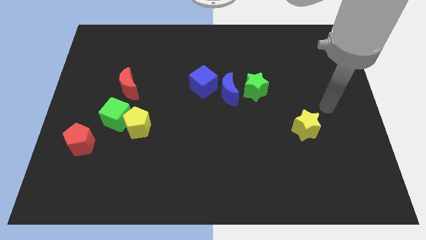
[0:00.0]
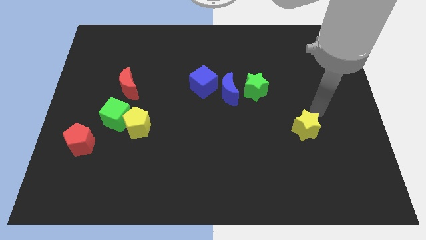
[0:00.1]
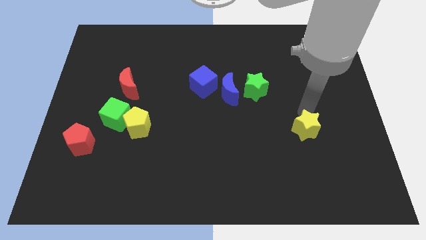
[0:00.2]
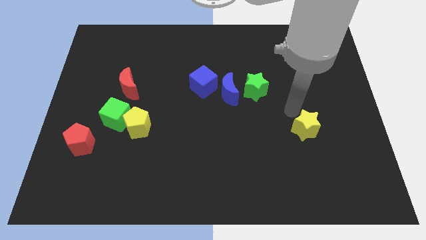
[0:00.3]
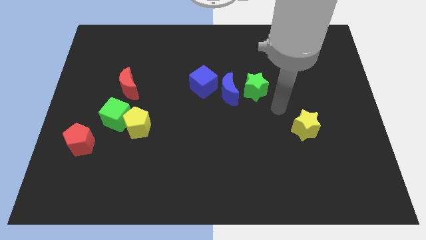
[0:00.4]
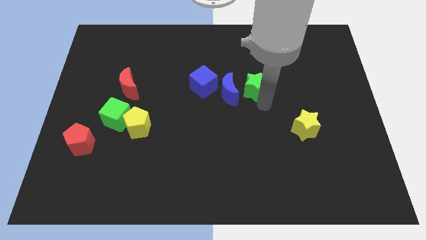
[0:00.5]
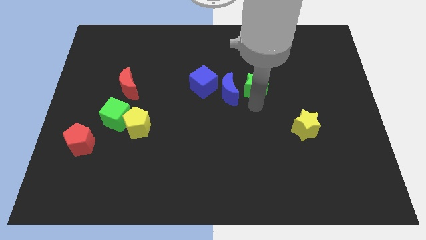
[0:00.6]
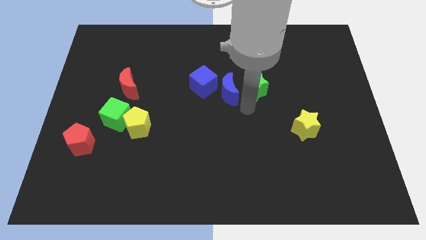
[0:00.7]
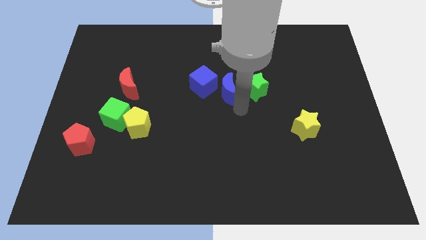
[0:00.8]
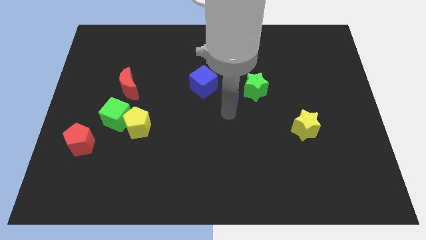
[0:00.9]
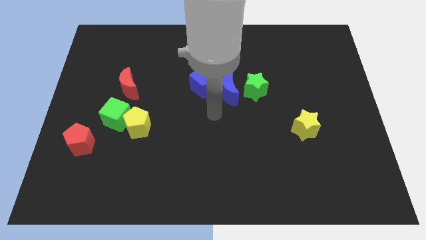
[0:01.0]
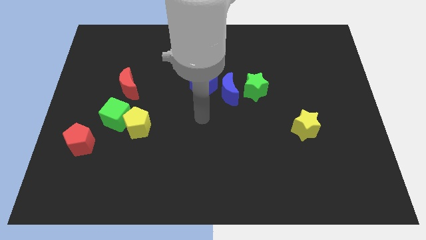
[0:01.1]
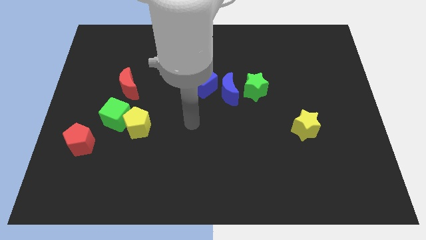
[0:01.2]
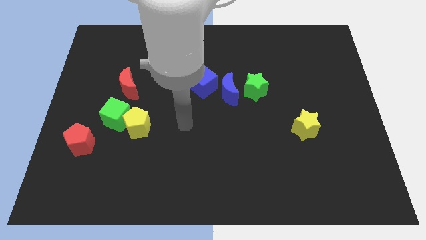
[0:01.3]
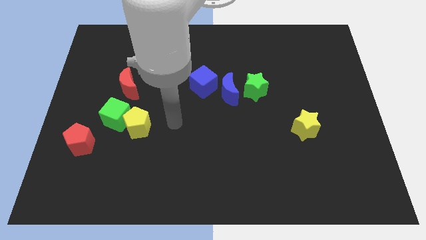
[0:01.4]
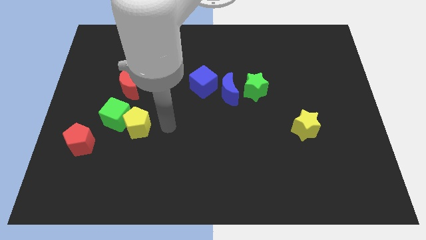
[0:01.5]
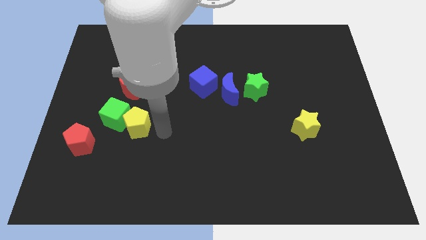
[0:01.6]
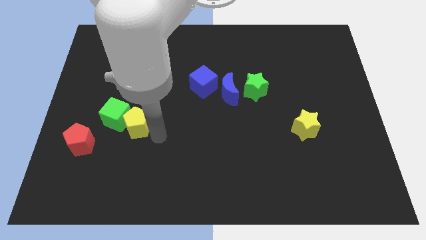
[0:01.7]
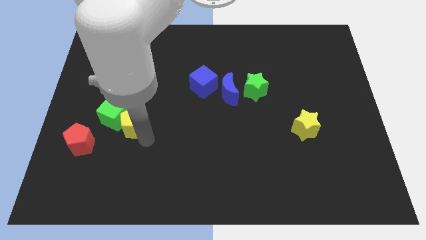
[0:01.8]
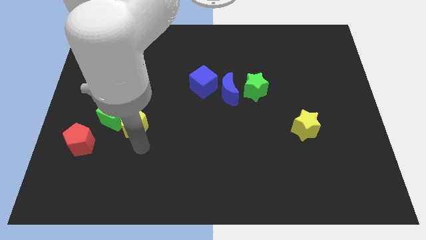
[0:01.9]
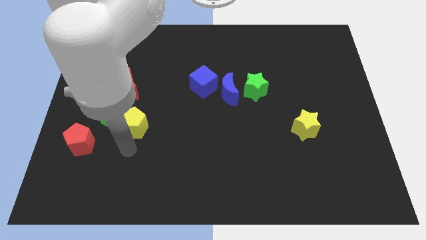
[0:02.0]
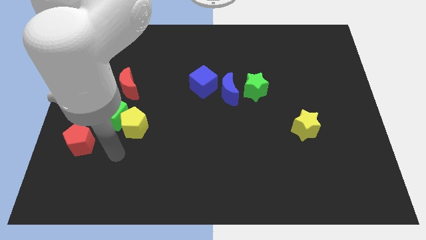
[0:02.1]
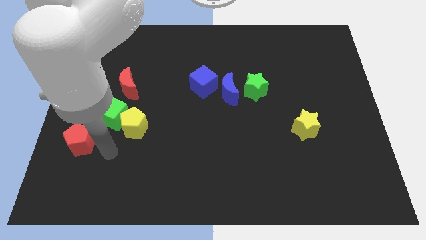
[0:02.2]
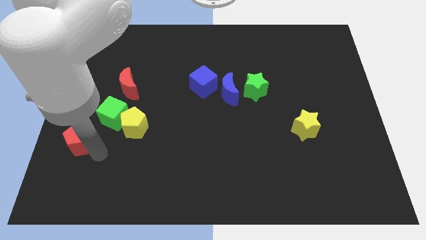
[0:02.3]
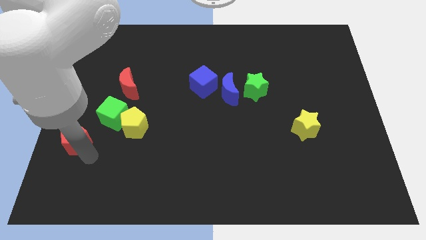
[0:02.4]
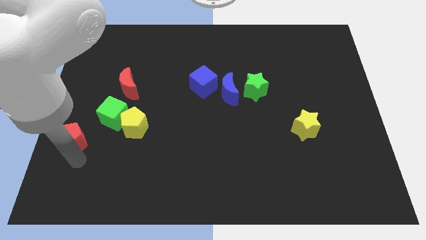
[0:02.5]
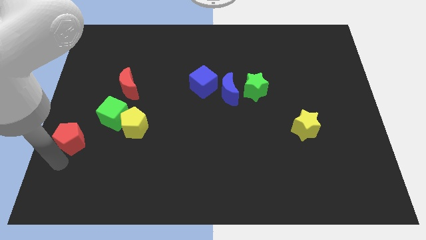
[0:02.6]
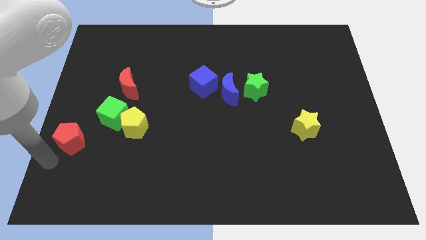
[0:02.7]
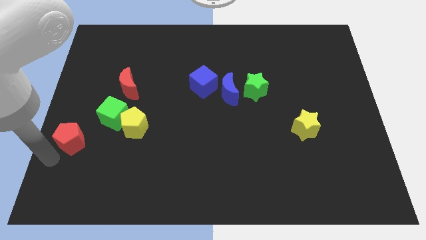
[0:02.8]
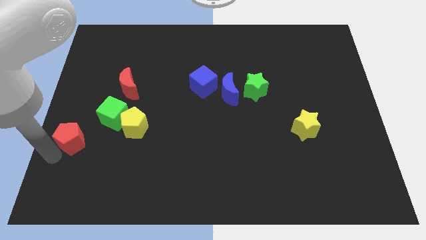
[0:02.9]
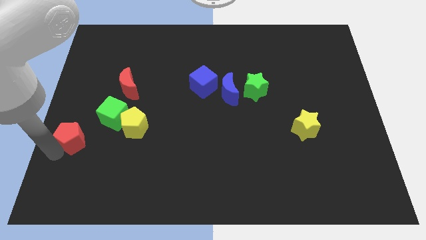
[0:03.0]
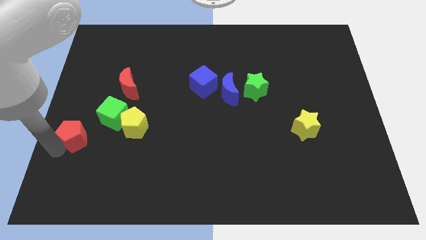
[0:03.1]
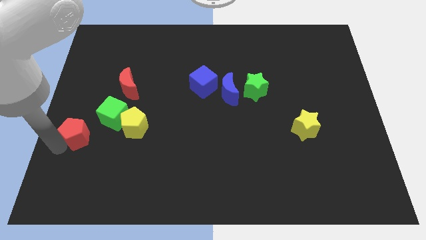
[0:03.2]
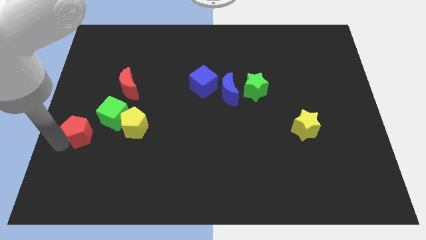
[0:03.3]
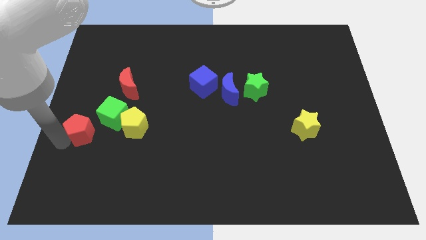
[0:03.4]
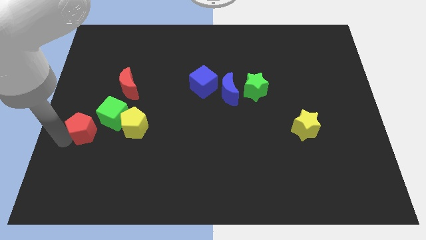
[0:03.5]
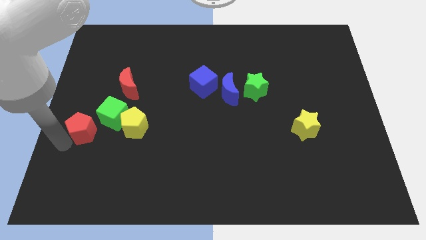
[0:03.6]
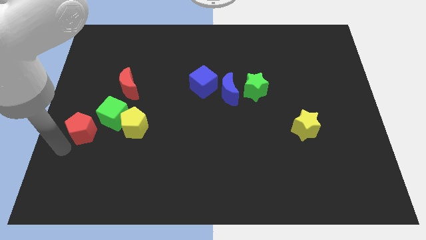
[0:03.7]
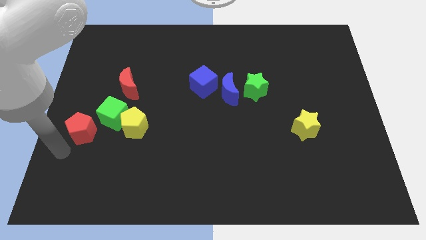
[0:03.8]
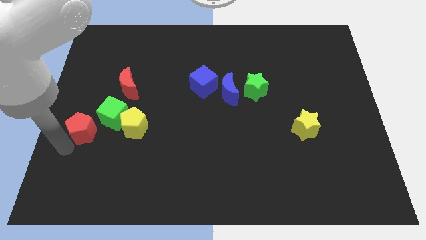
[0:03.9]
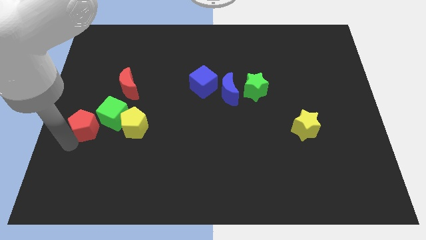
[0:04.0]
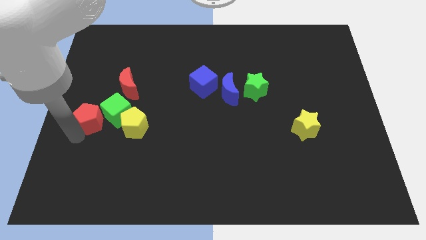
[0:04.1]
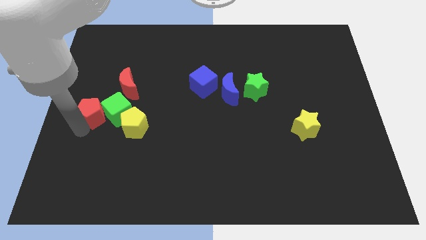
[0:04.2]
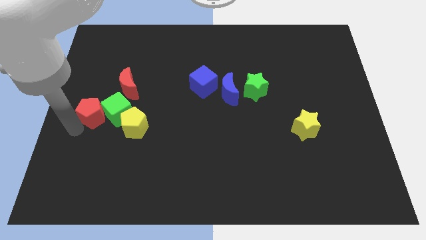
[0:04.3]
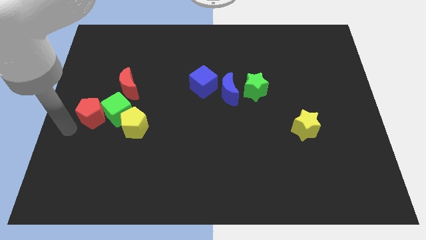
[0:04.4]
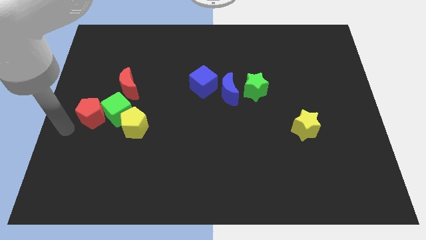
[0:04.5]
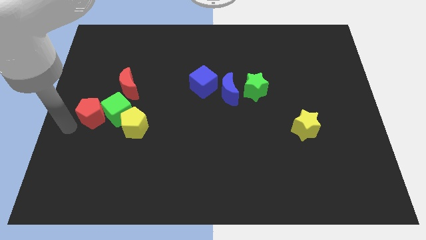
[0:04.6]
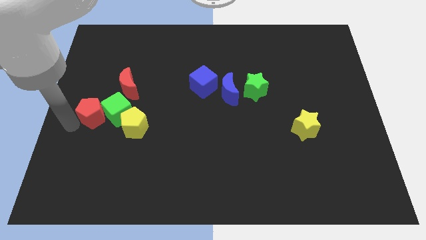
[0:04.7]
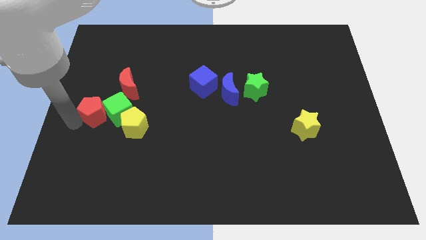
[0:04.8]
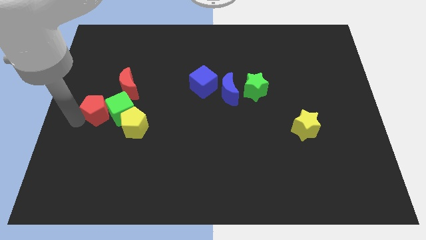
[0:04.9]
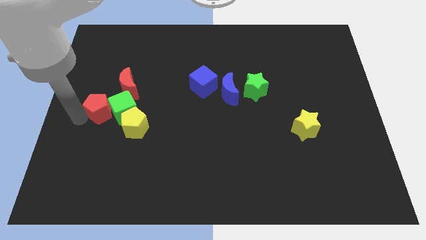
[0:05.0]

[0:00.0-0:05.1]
slide the red pentagon slightly upwards and right diagonally

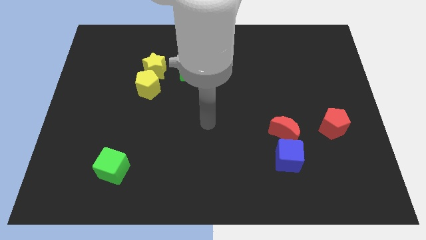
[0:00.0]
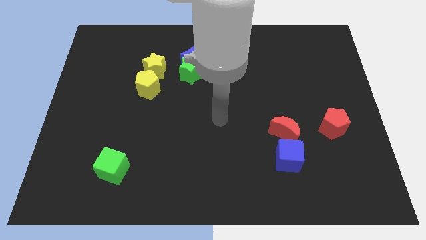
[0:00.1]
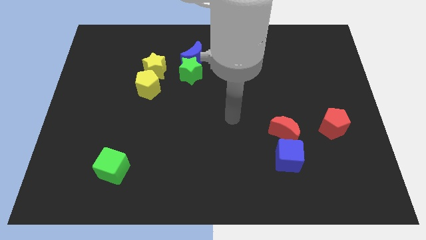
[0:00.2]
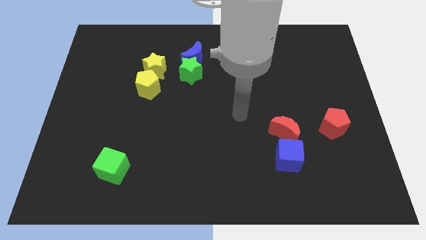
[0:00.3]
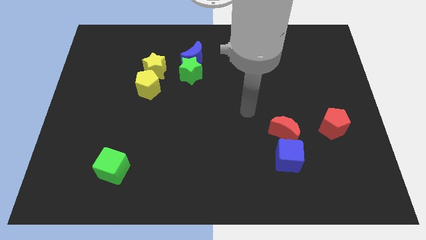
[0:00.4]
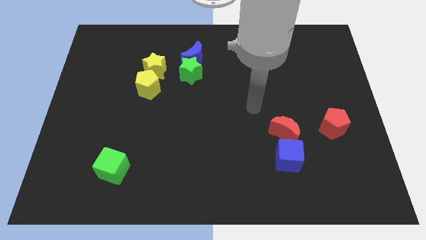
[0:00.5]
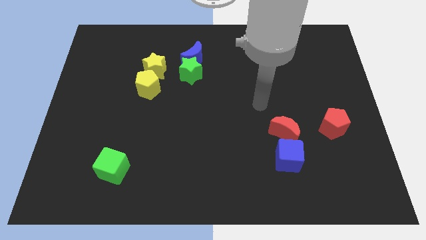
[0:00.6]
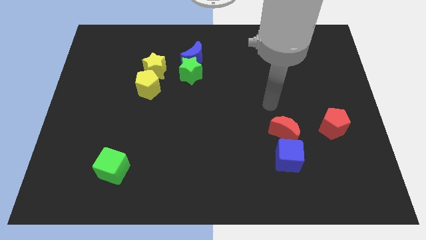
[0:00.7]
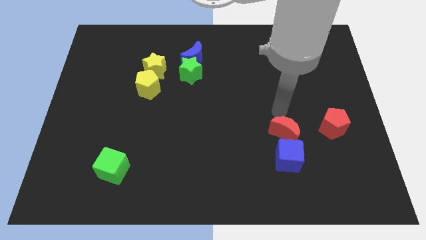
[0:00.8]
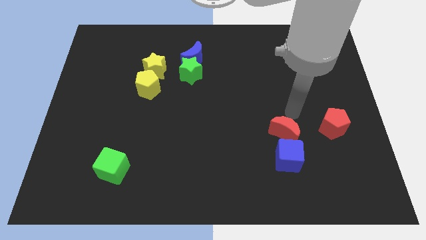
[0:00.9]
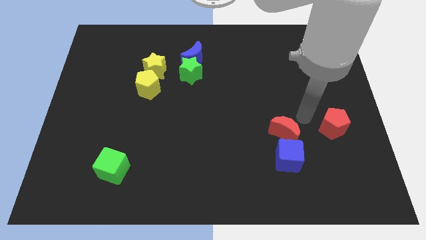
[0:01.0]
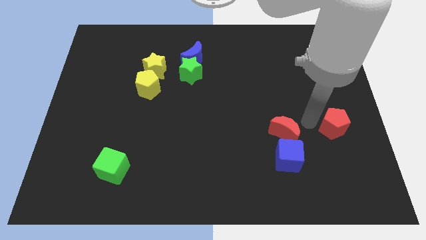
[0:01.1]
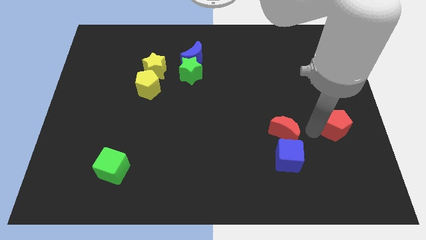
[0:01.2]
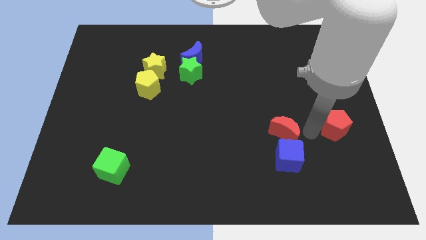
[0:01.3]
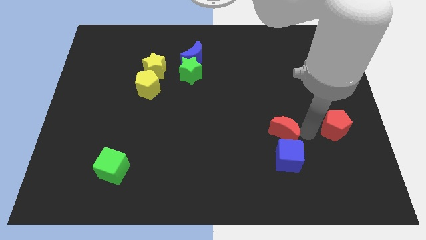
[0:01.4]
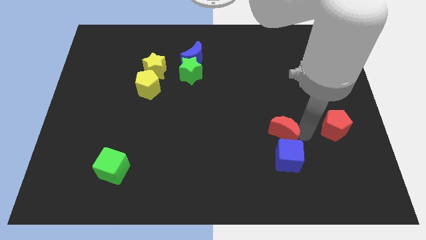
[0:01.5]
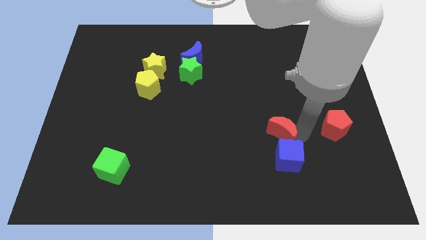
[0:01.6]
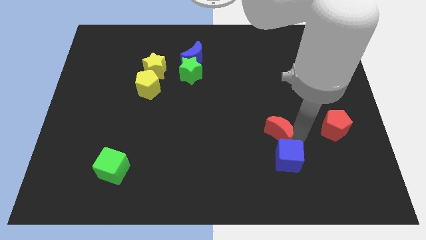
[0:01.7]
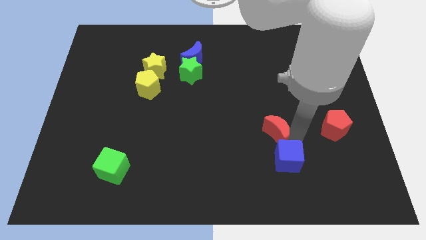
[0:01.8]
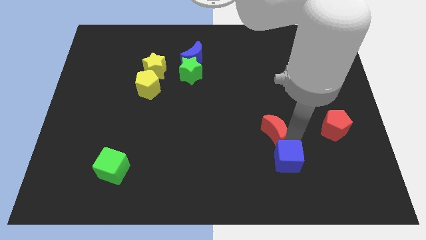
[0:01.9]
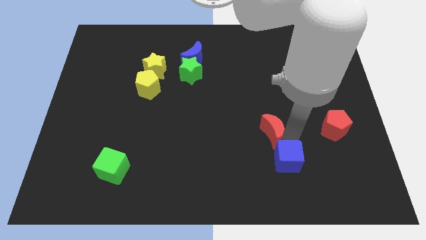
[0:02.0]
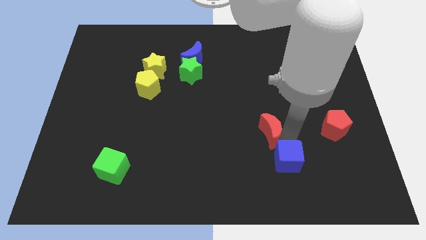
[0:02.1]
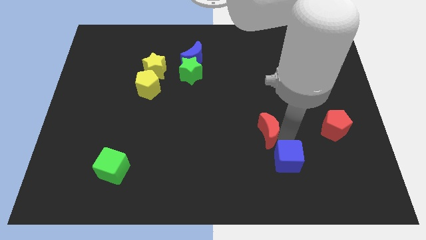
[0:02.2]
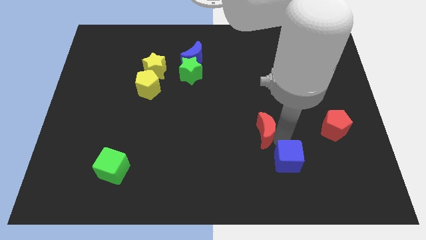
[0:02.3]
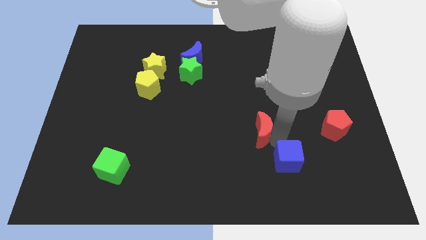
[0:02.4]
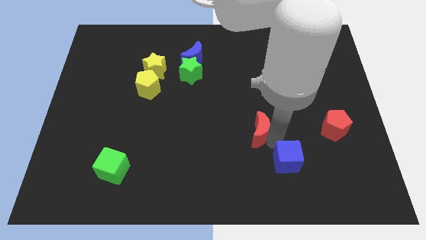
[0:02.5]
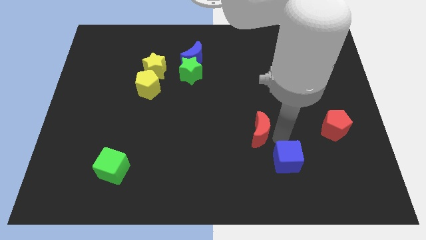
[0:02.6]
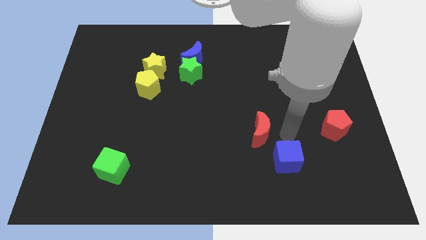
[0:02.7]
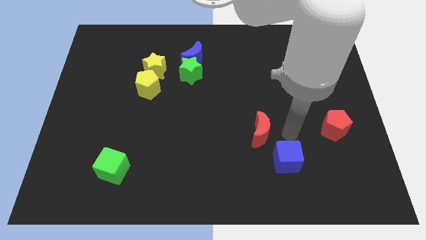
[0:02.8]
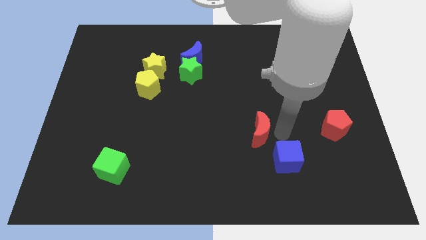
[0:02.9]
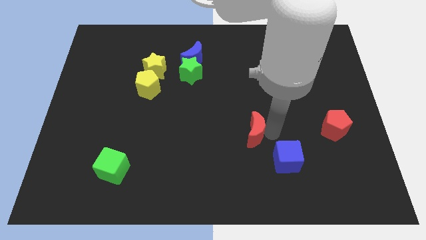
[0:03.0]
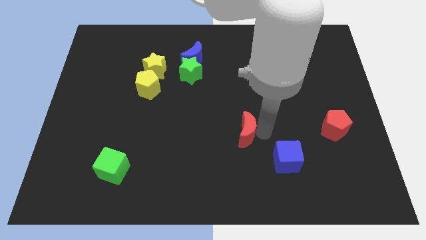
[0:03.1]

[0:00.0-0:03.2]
push the red moon to the left somewhat
